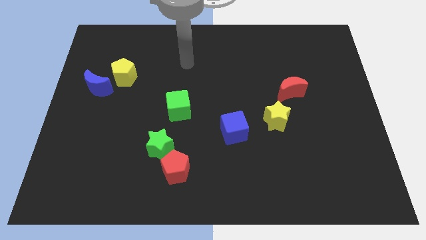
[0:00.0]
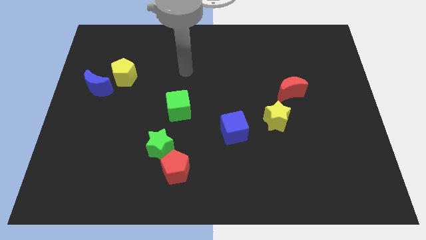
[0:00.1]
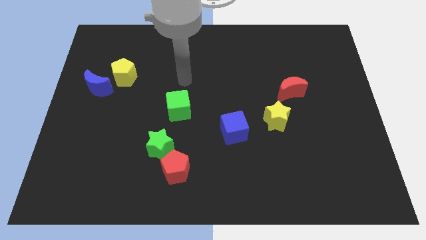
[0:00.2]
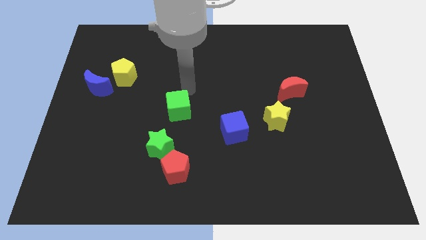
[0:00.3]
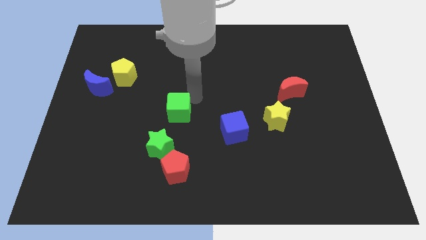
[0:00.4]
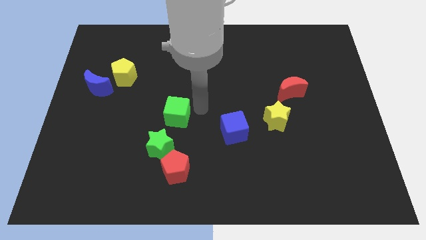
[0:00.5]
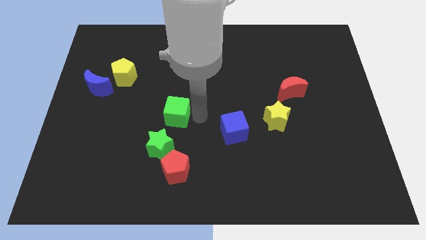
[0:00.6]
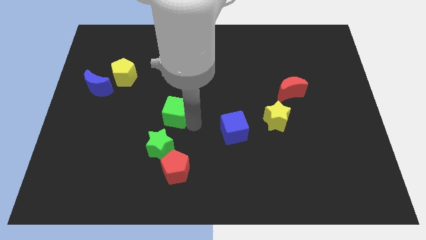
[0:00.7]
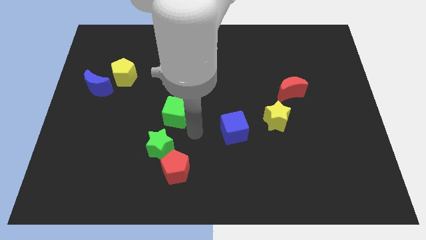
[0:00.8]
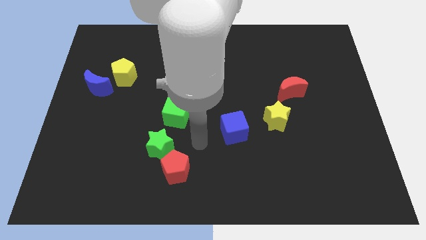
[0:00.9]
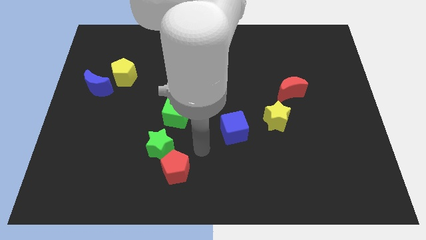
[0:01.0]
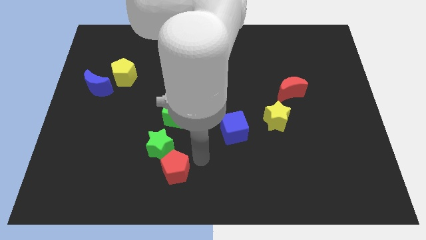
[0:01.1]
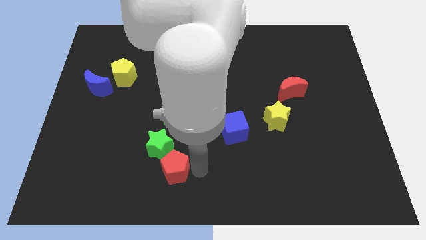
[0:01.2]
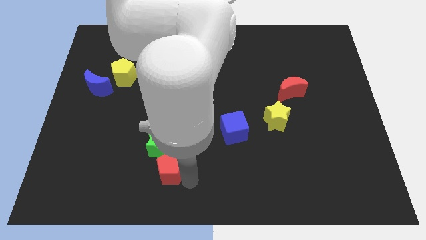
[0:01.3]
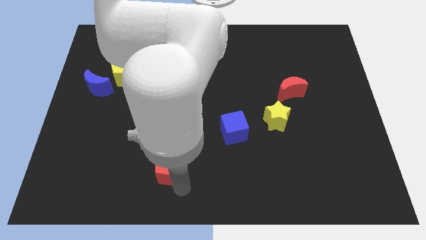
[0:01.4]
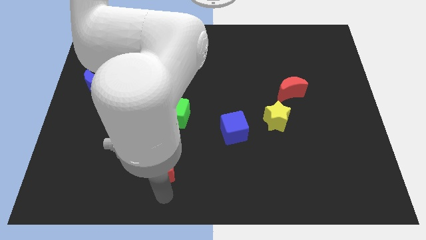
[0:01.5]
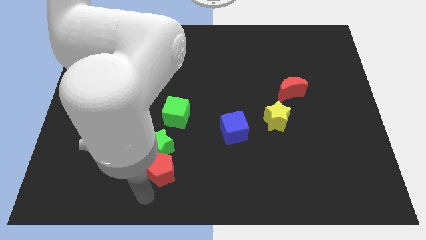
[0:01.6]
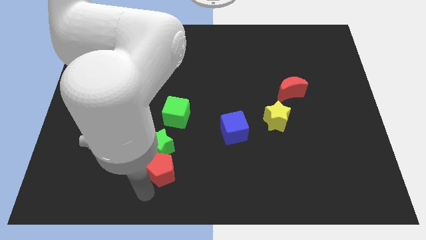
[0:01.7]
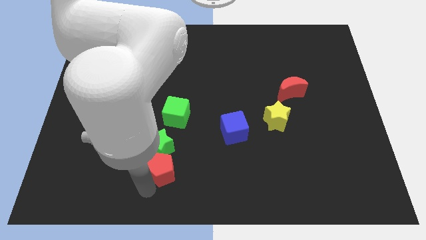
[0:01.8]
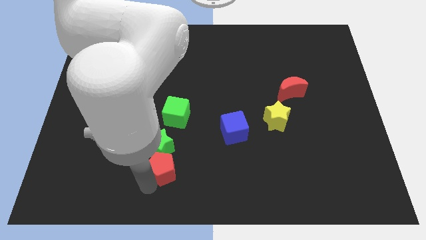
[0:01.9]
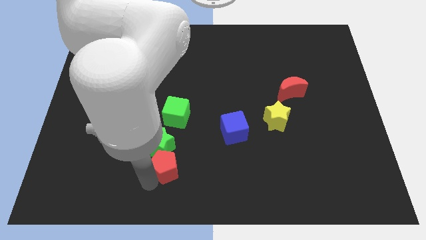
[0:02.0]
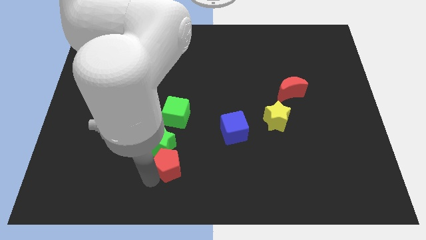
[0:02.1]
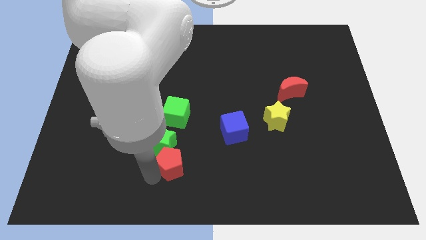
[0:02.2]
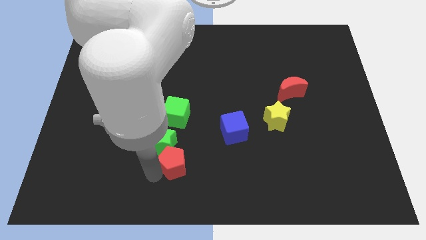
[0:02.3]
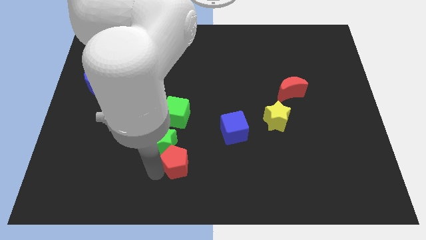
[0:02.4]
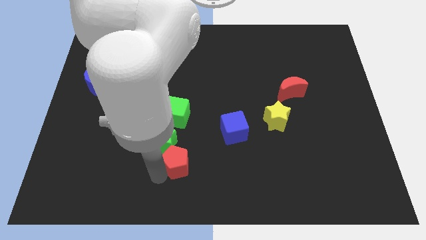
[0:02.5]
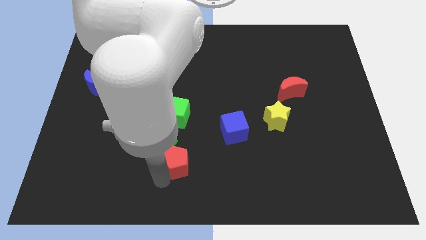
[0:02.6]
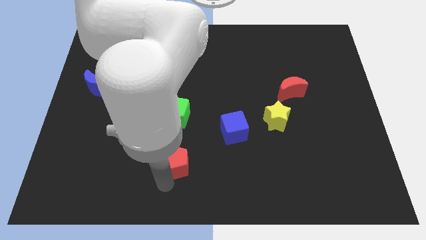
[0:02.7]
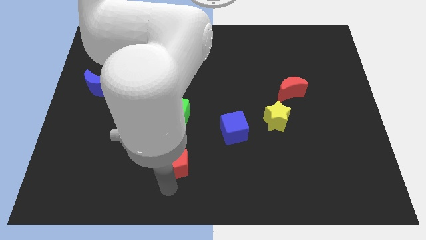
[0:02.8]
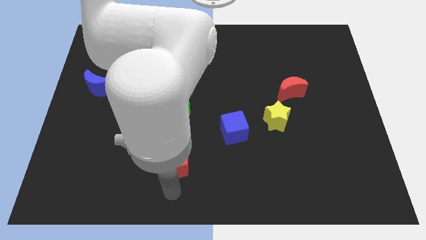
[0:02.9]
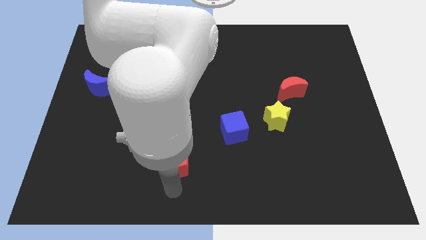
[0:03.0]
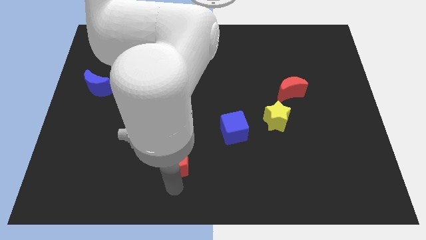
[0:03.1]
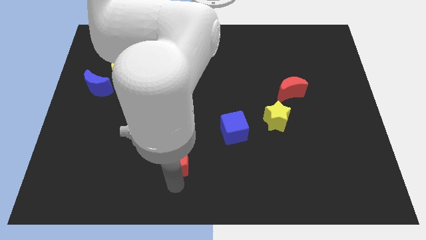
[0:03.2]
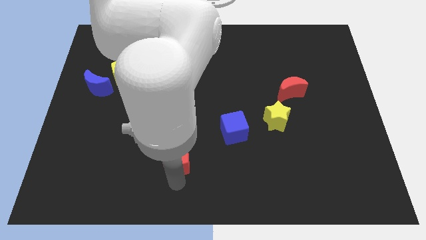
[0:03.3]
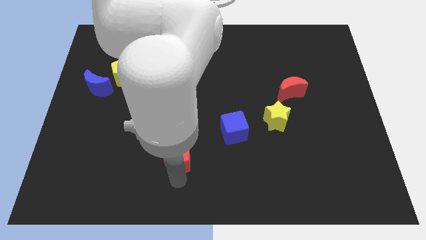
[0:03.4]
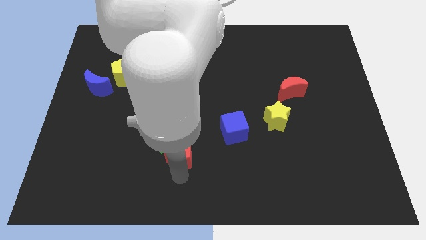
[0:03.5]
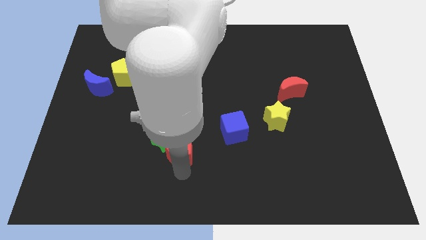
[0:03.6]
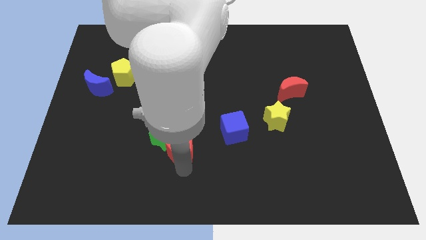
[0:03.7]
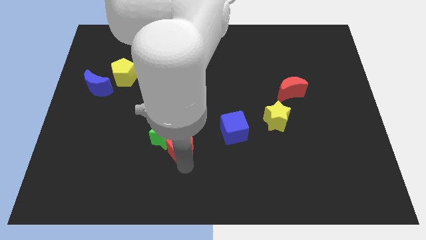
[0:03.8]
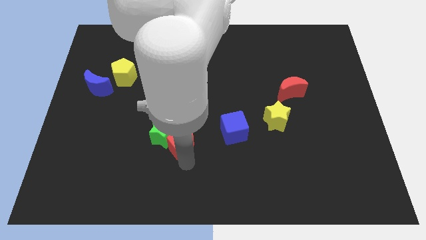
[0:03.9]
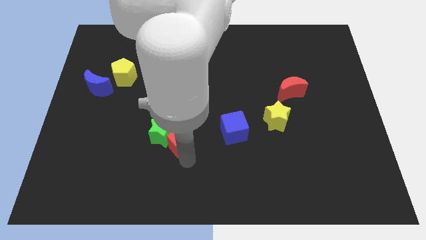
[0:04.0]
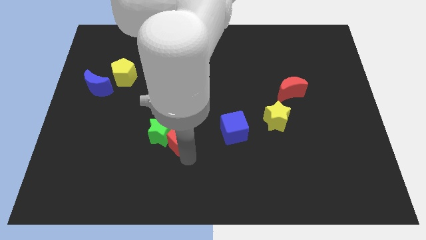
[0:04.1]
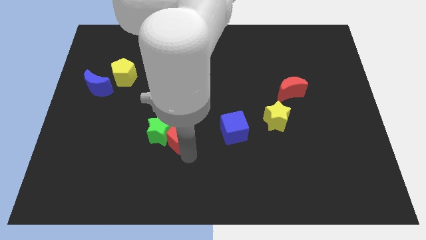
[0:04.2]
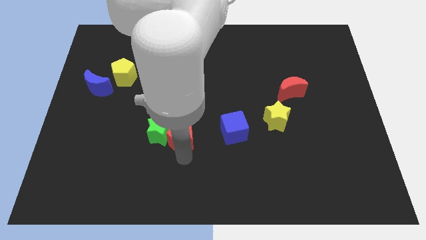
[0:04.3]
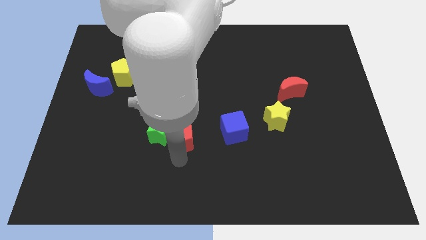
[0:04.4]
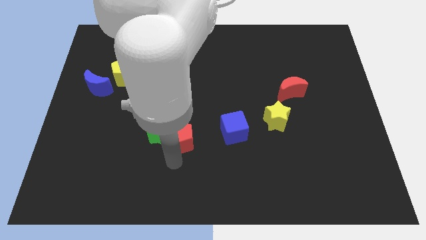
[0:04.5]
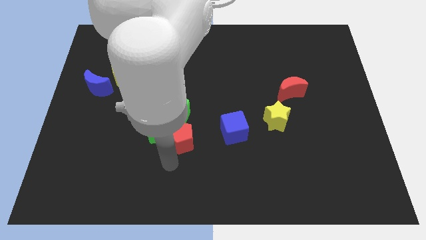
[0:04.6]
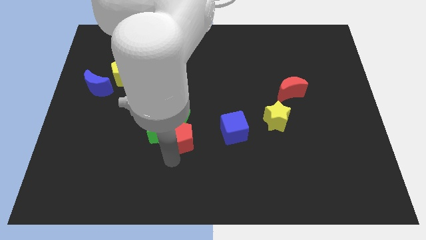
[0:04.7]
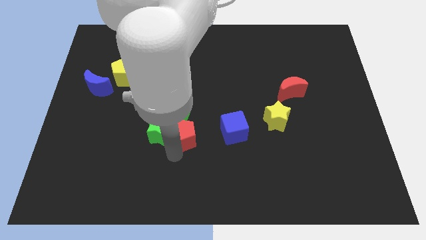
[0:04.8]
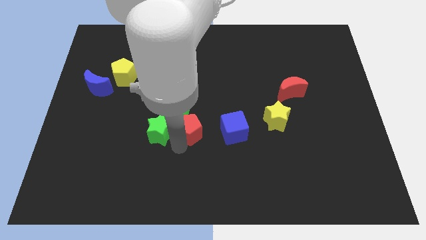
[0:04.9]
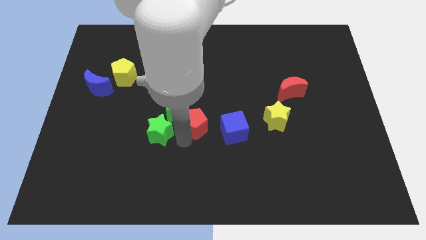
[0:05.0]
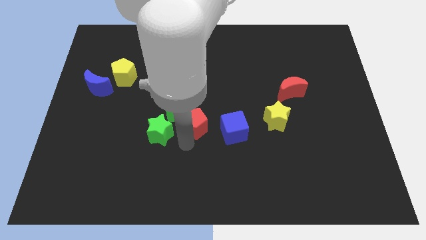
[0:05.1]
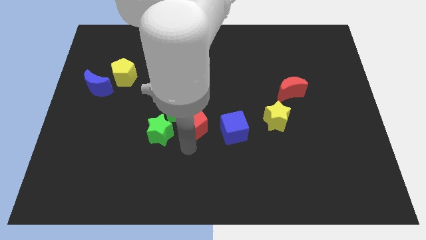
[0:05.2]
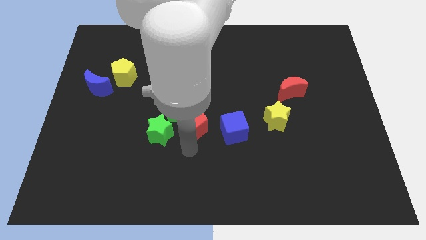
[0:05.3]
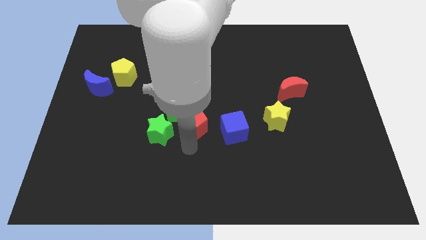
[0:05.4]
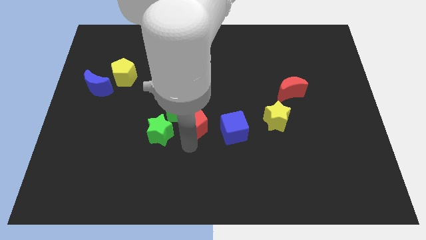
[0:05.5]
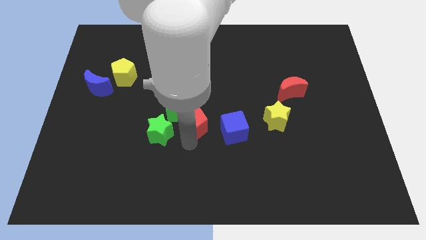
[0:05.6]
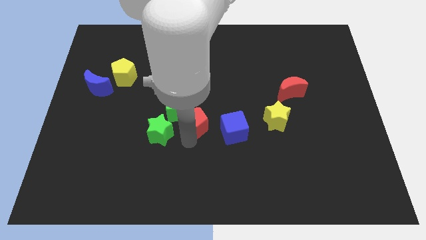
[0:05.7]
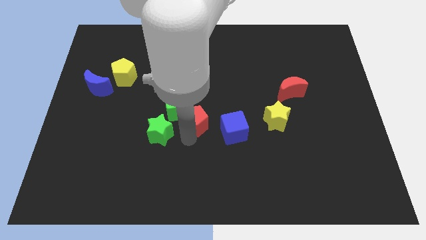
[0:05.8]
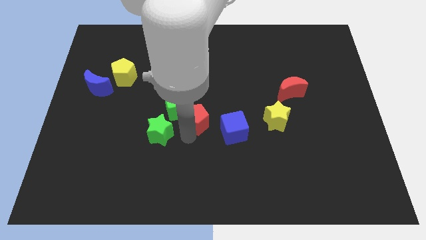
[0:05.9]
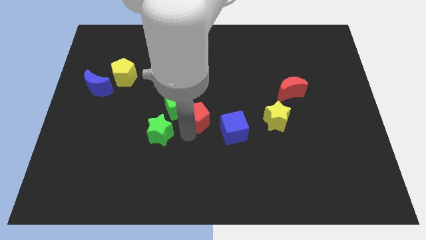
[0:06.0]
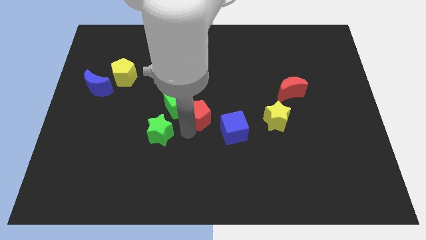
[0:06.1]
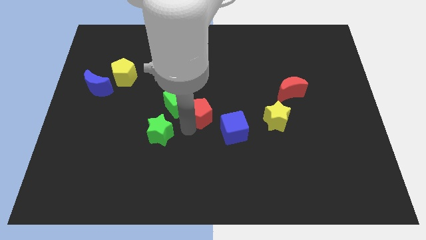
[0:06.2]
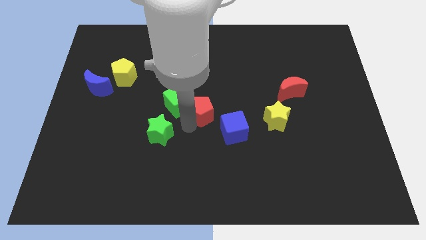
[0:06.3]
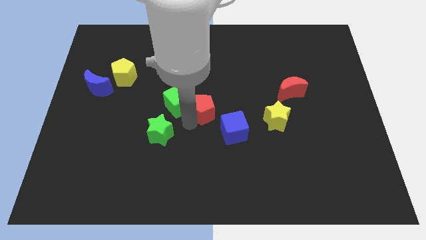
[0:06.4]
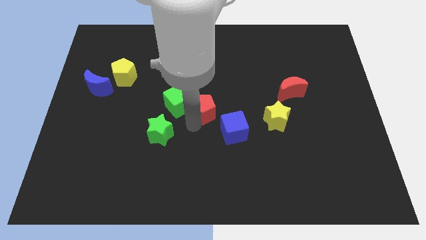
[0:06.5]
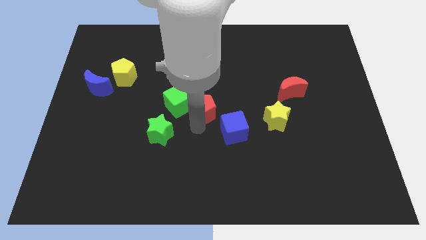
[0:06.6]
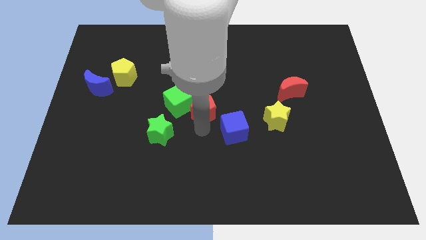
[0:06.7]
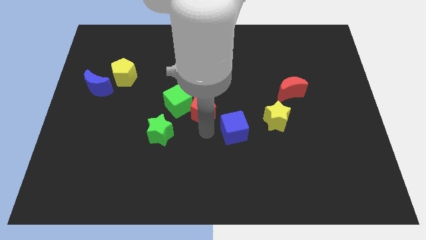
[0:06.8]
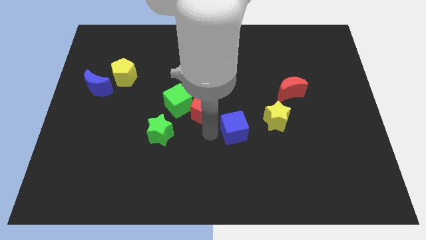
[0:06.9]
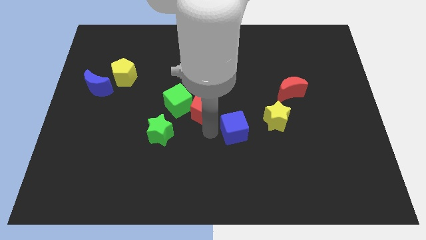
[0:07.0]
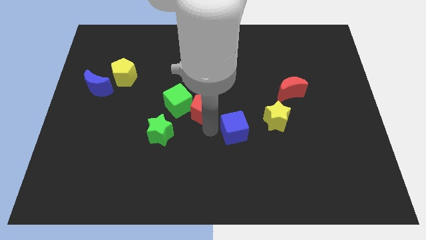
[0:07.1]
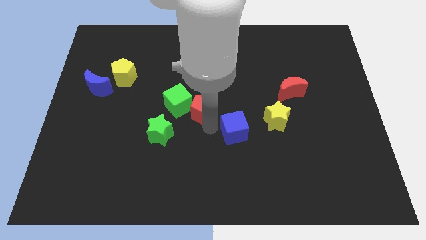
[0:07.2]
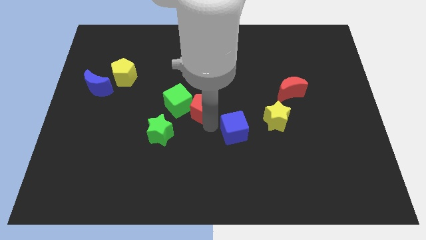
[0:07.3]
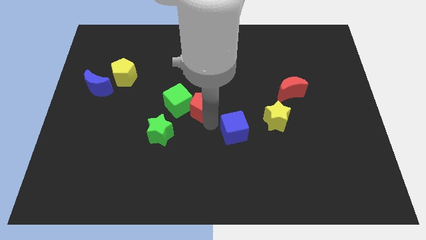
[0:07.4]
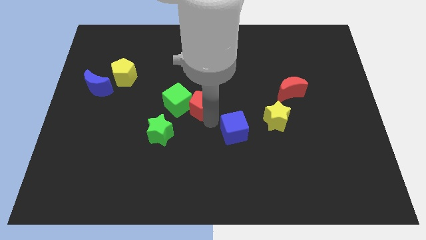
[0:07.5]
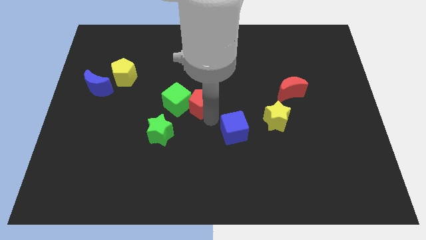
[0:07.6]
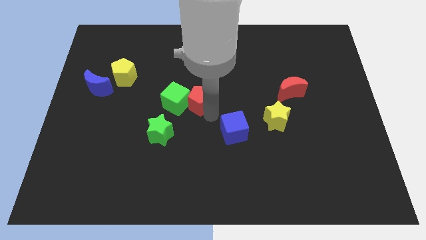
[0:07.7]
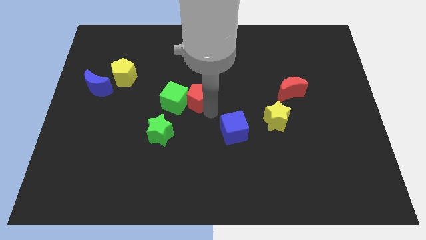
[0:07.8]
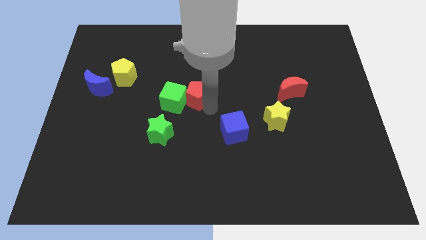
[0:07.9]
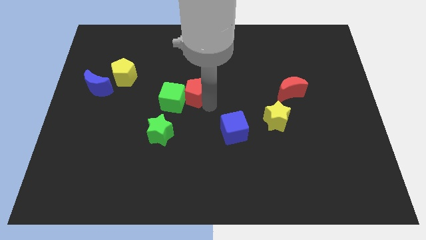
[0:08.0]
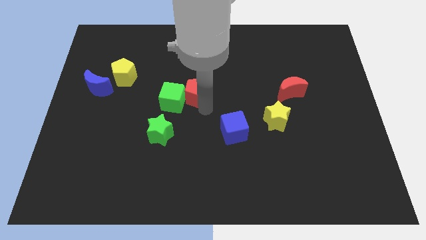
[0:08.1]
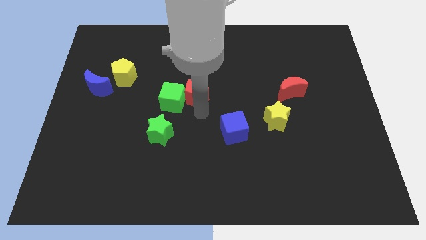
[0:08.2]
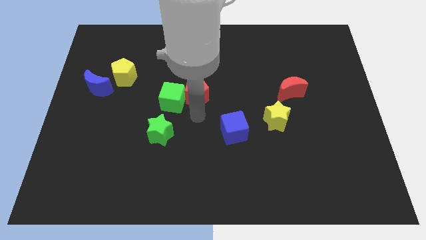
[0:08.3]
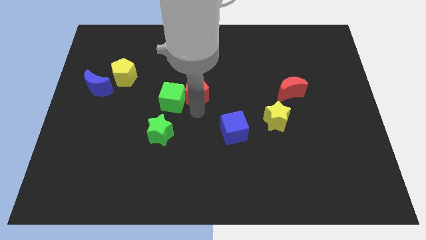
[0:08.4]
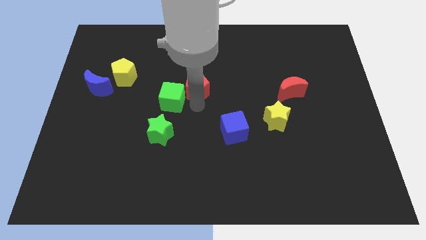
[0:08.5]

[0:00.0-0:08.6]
push the red pentagon upwards
